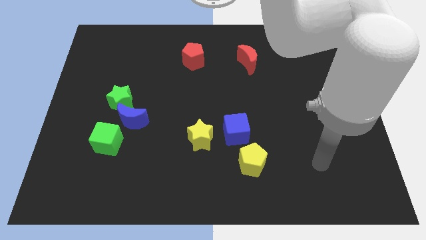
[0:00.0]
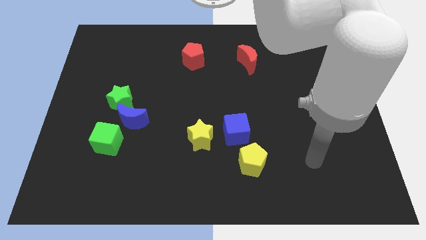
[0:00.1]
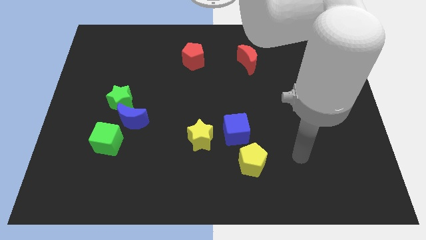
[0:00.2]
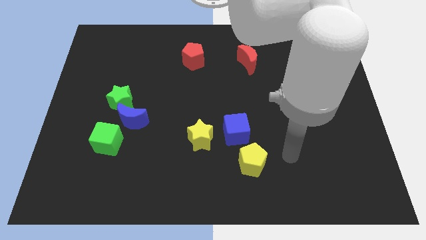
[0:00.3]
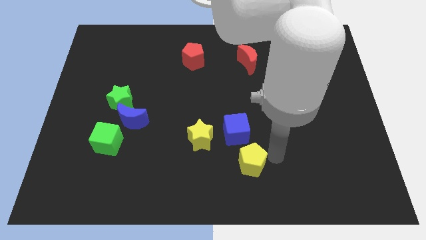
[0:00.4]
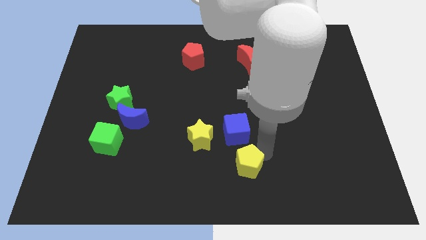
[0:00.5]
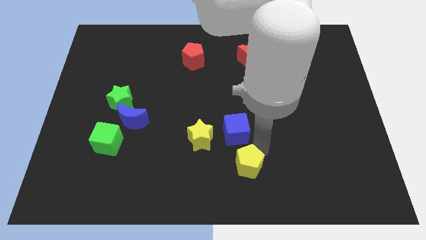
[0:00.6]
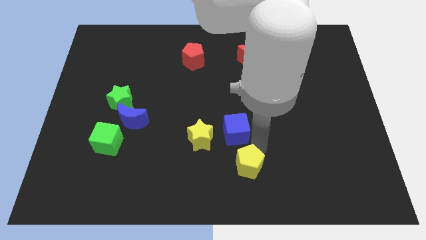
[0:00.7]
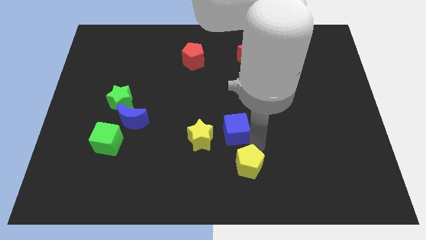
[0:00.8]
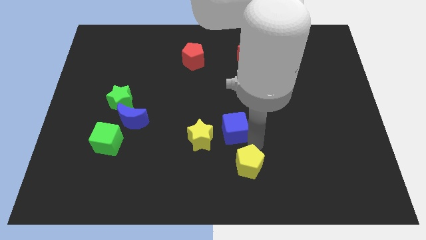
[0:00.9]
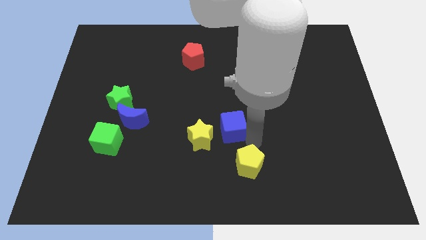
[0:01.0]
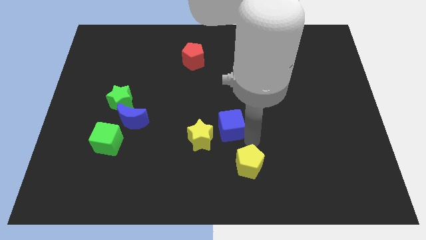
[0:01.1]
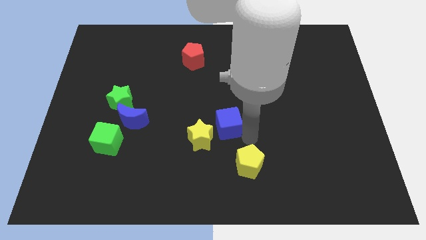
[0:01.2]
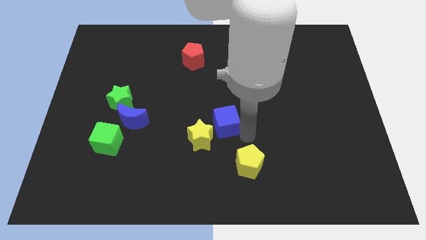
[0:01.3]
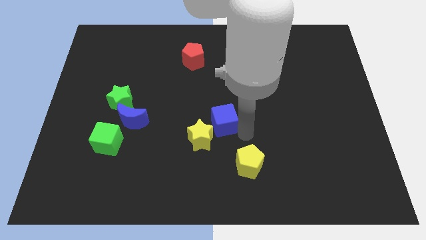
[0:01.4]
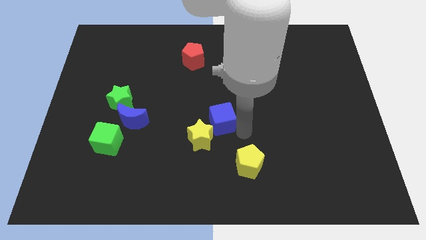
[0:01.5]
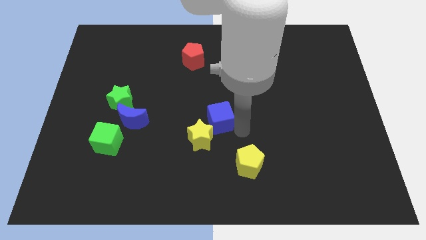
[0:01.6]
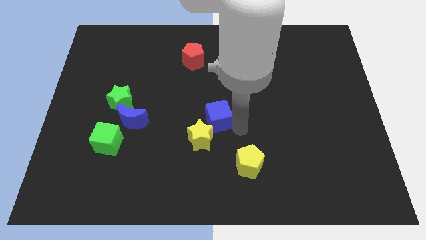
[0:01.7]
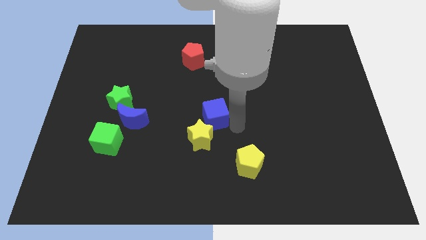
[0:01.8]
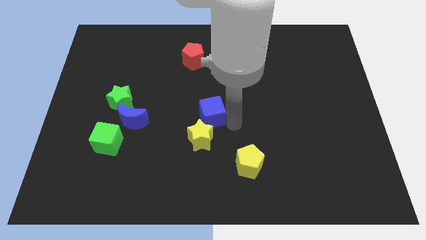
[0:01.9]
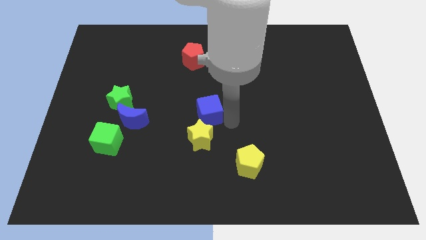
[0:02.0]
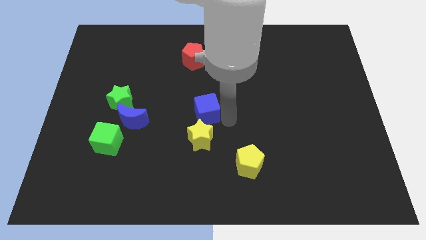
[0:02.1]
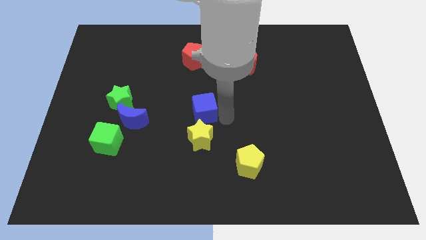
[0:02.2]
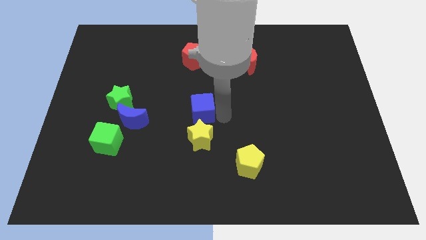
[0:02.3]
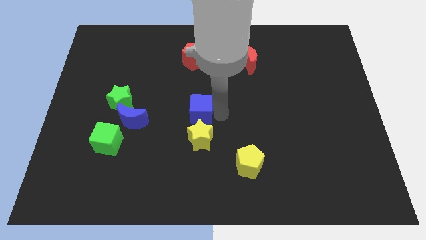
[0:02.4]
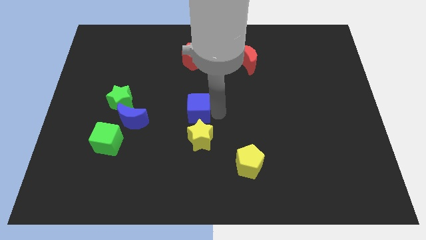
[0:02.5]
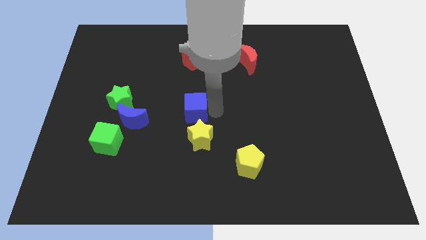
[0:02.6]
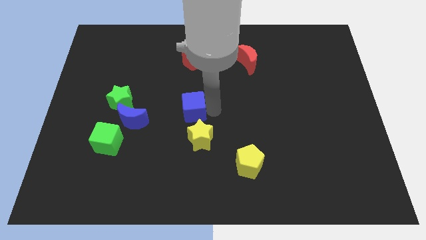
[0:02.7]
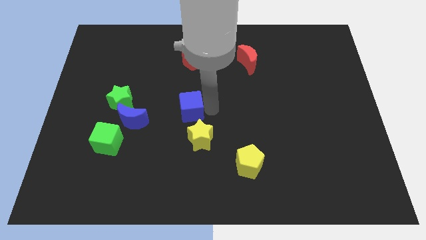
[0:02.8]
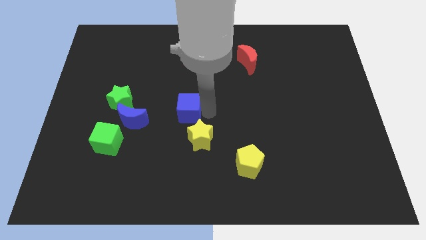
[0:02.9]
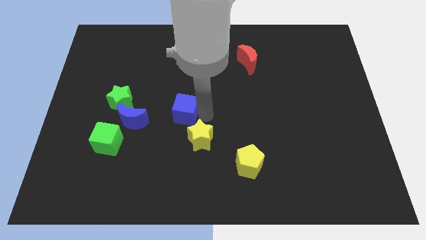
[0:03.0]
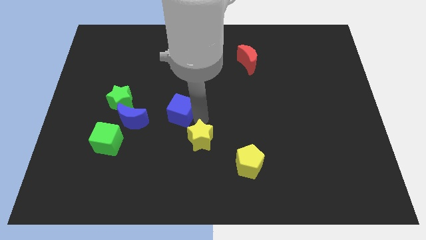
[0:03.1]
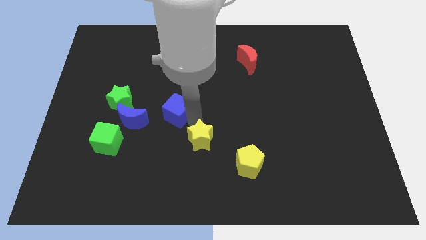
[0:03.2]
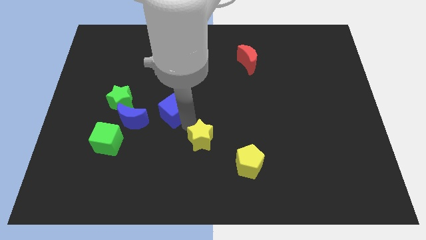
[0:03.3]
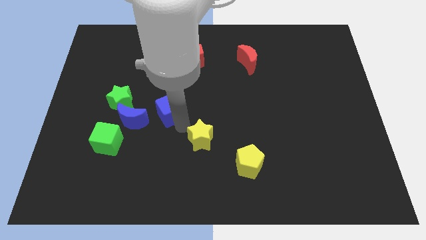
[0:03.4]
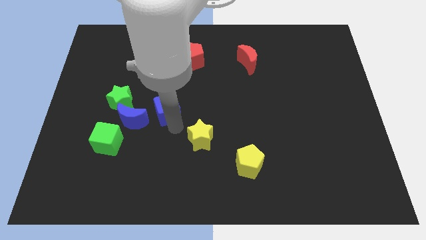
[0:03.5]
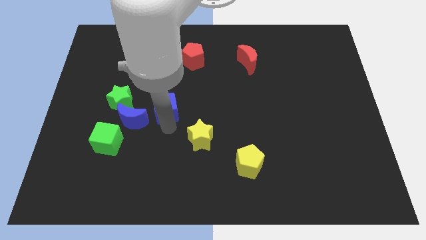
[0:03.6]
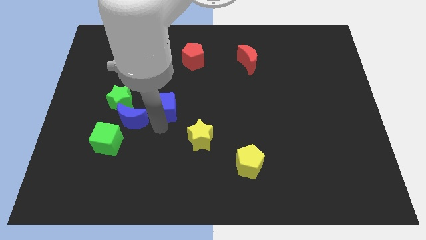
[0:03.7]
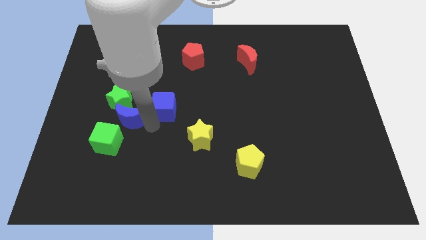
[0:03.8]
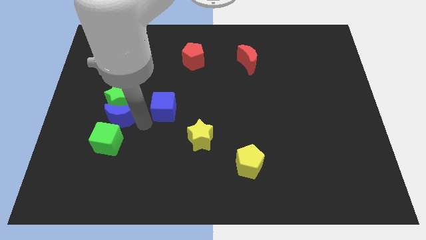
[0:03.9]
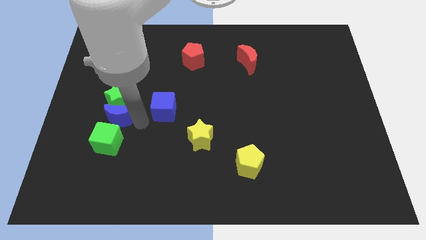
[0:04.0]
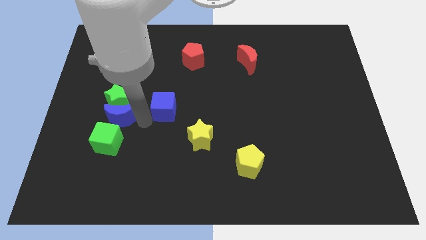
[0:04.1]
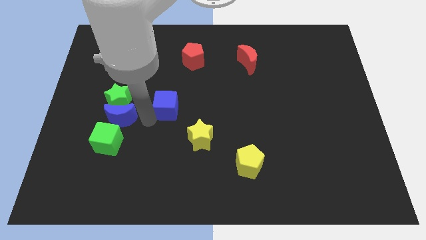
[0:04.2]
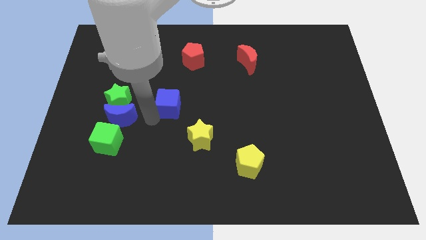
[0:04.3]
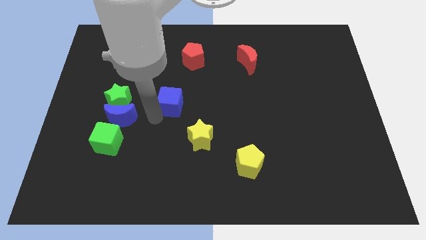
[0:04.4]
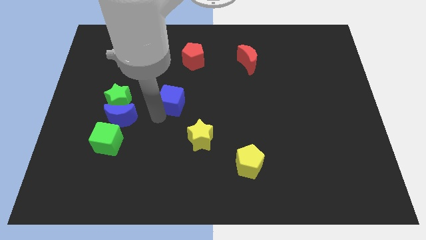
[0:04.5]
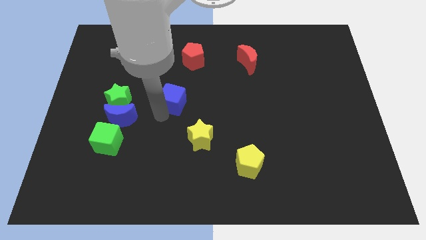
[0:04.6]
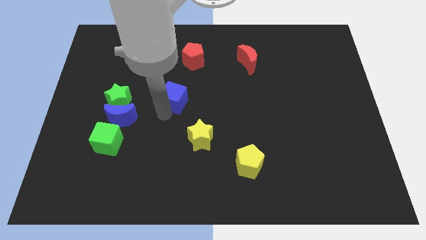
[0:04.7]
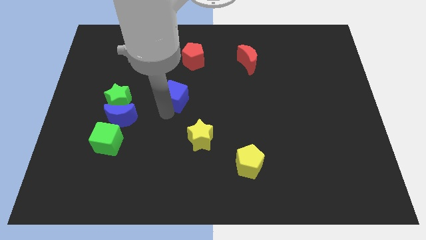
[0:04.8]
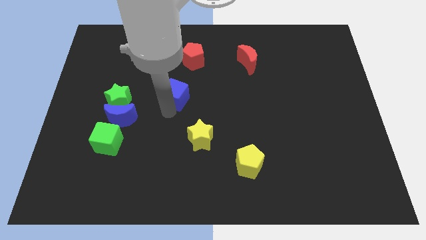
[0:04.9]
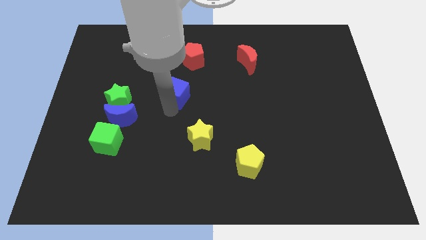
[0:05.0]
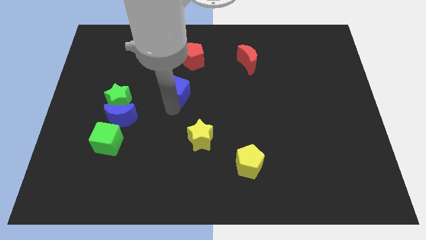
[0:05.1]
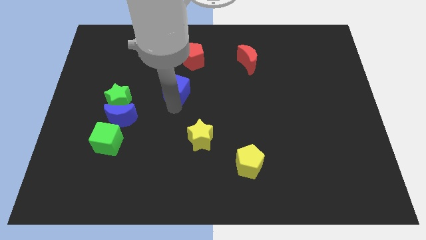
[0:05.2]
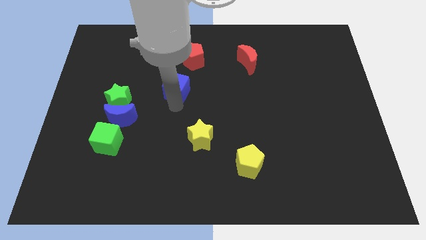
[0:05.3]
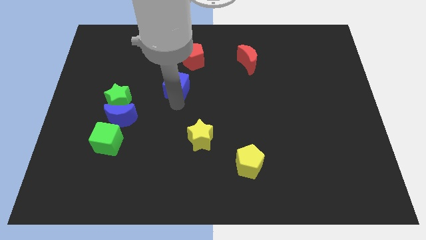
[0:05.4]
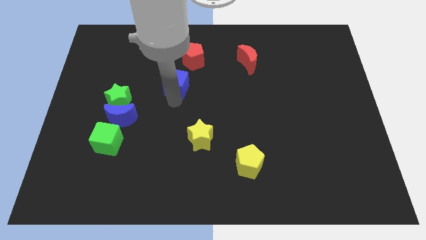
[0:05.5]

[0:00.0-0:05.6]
move the blue cube upwards and then to the left

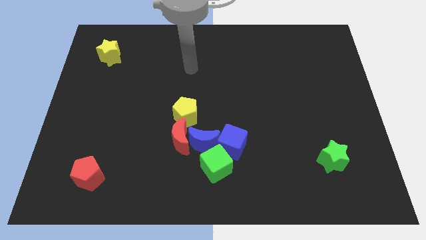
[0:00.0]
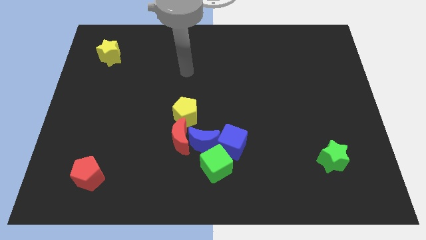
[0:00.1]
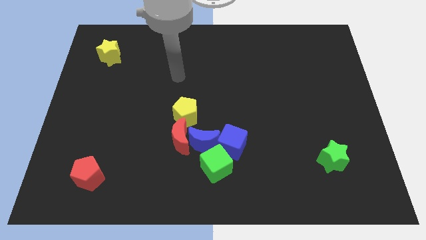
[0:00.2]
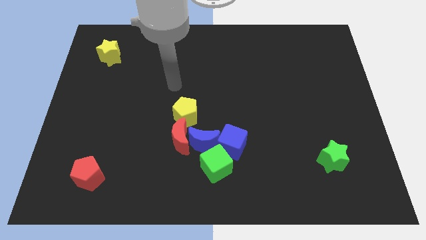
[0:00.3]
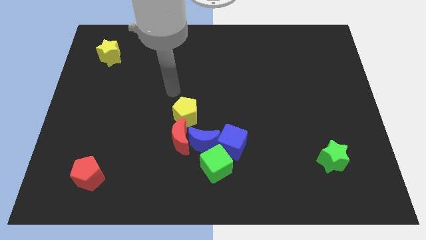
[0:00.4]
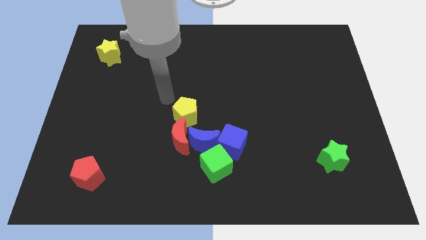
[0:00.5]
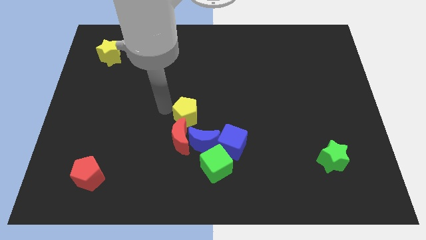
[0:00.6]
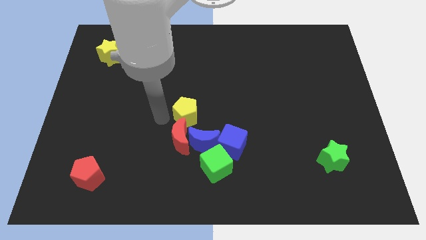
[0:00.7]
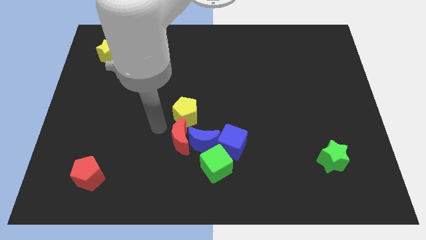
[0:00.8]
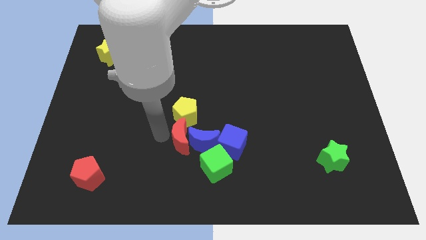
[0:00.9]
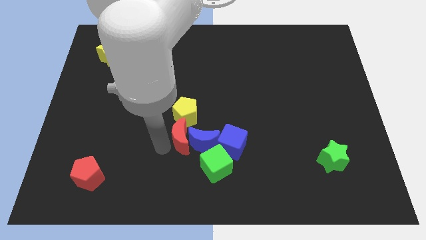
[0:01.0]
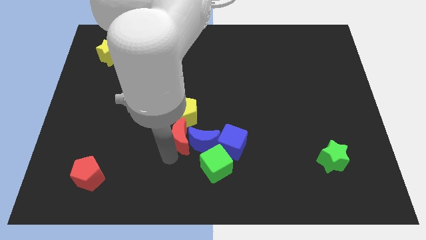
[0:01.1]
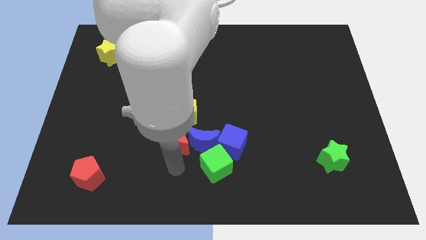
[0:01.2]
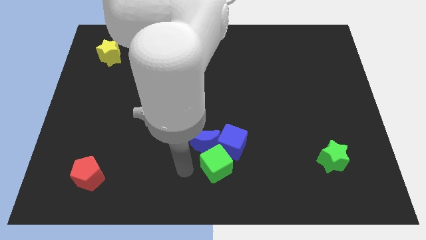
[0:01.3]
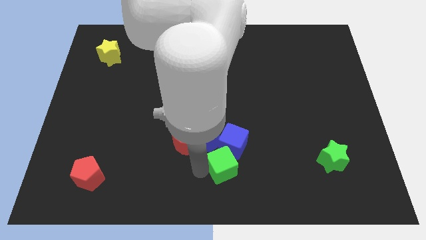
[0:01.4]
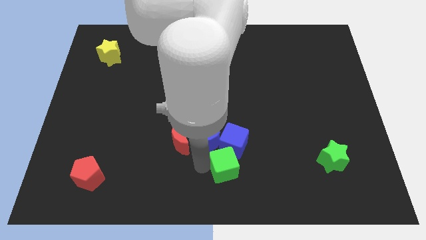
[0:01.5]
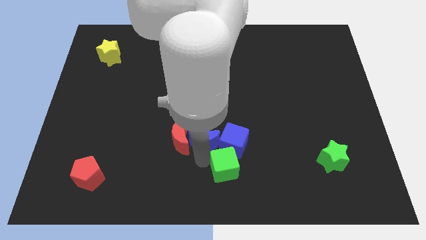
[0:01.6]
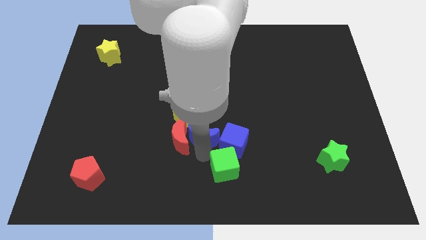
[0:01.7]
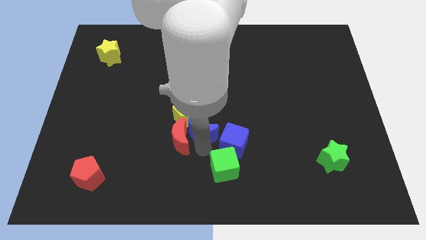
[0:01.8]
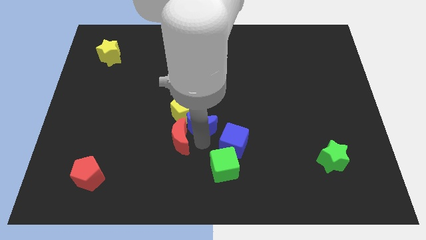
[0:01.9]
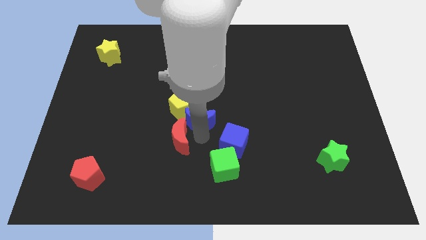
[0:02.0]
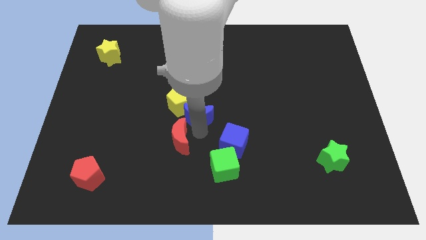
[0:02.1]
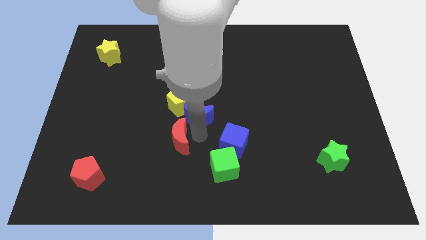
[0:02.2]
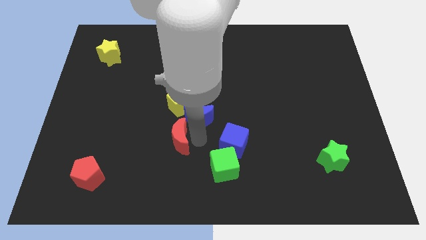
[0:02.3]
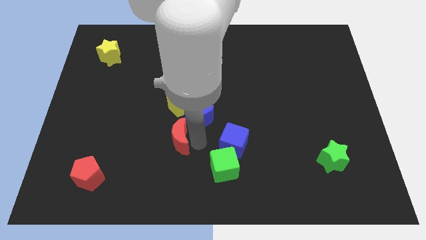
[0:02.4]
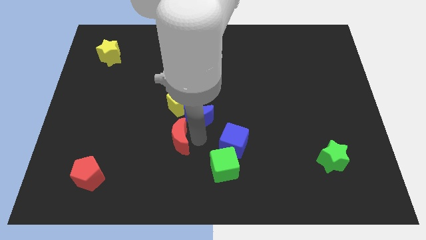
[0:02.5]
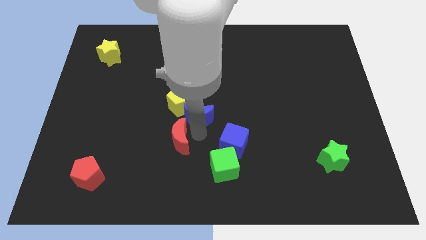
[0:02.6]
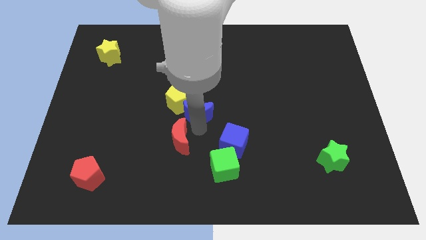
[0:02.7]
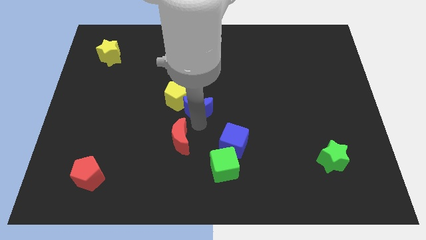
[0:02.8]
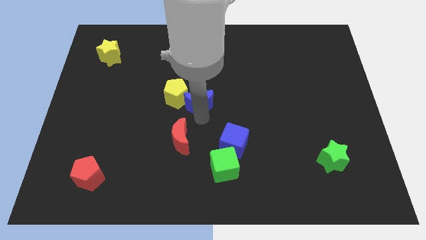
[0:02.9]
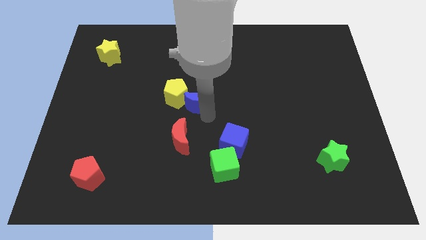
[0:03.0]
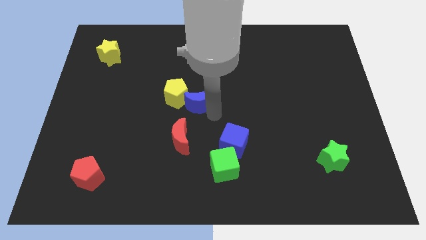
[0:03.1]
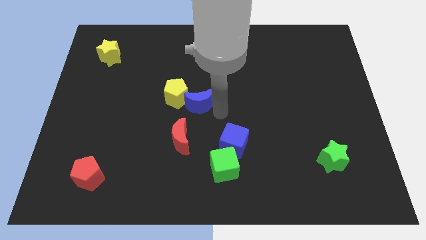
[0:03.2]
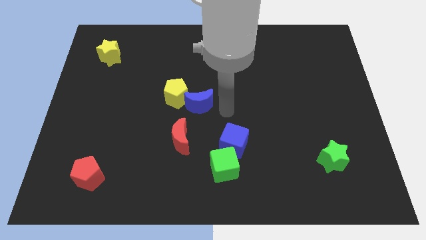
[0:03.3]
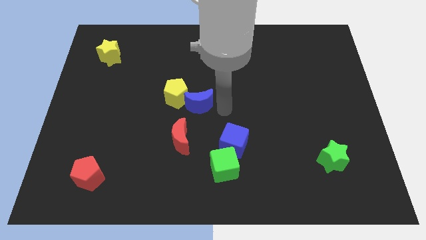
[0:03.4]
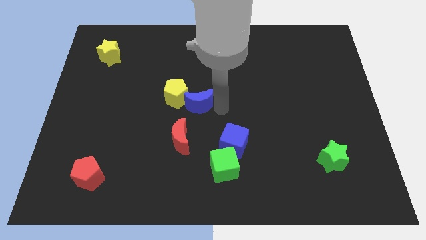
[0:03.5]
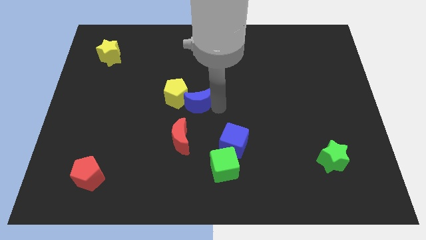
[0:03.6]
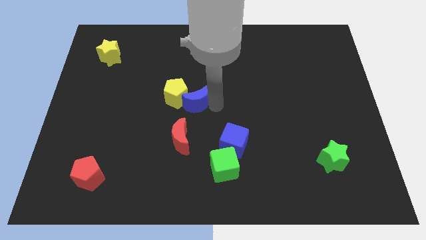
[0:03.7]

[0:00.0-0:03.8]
move the blue moon diagonally upwards and left slightly
